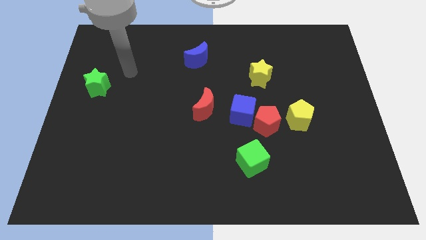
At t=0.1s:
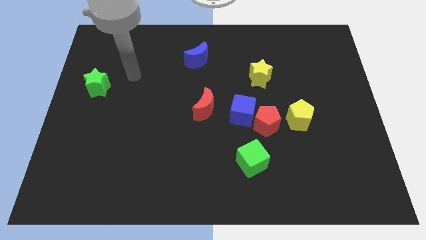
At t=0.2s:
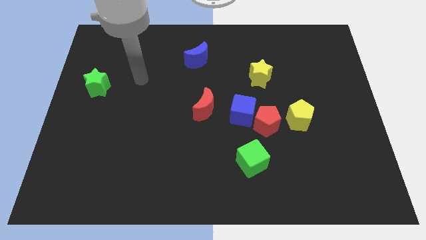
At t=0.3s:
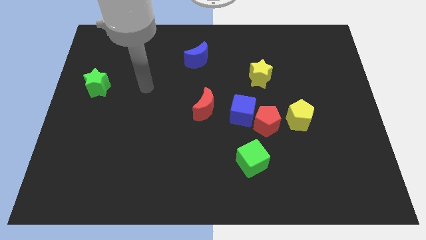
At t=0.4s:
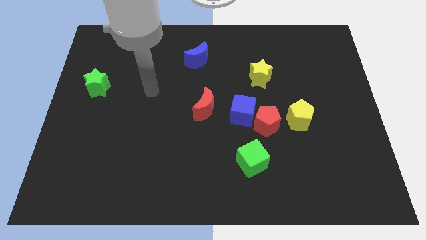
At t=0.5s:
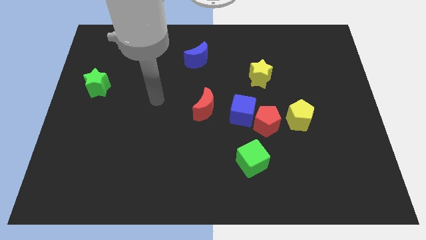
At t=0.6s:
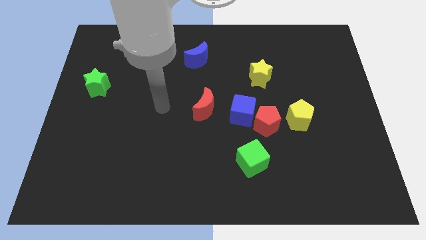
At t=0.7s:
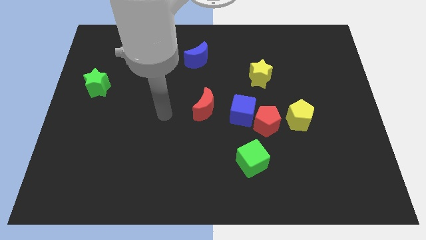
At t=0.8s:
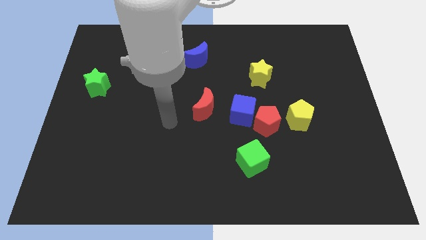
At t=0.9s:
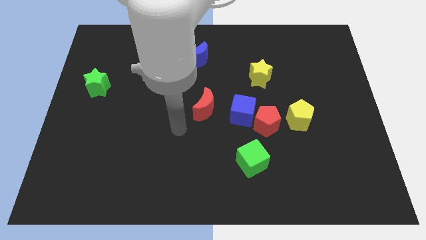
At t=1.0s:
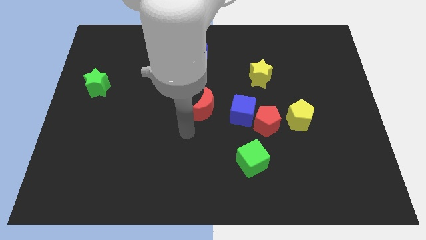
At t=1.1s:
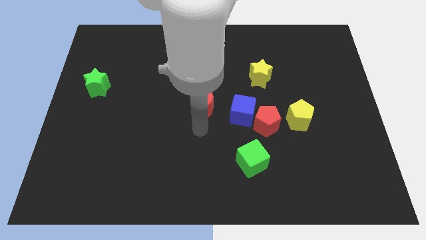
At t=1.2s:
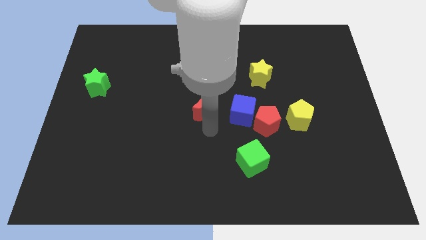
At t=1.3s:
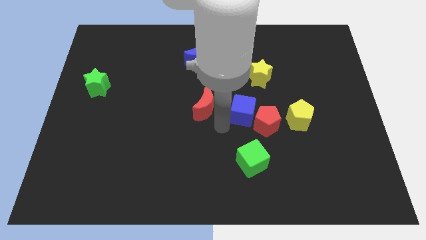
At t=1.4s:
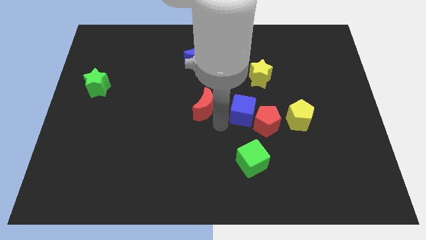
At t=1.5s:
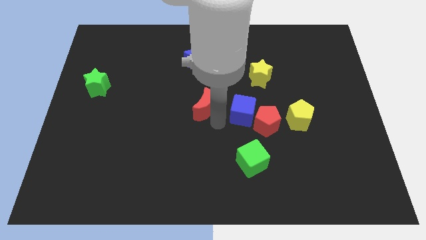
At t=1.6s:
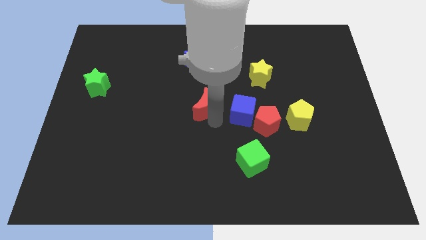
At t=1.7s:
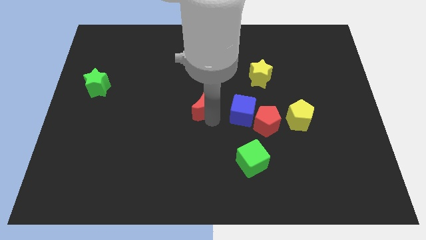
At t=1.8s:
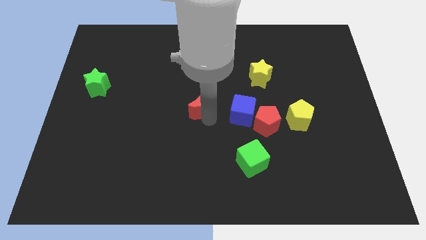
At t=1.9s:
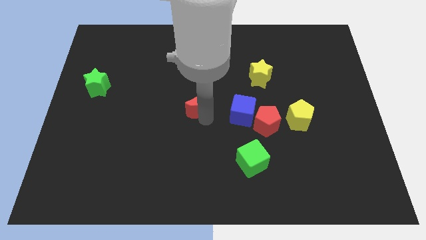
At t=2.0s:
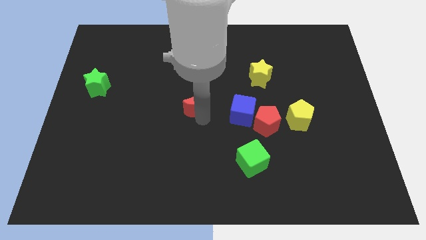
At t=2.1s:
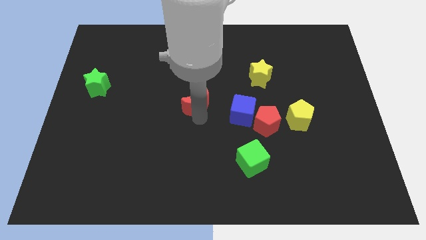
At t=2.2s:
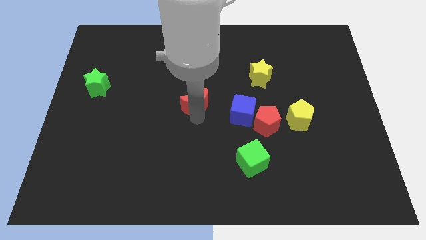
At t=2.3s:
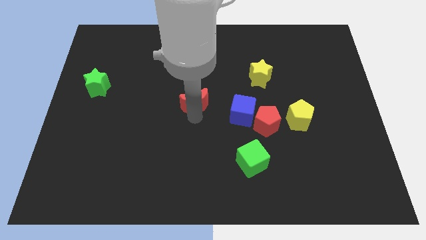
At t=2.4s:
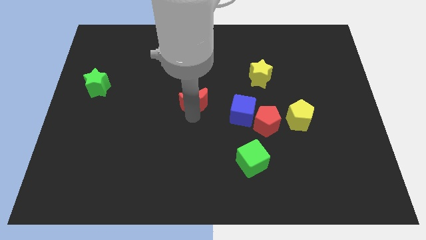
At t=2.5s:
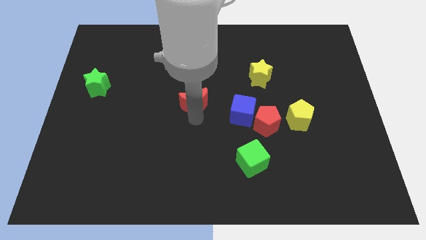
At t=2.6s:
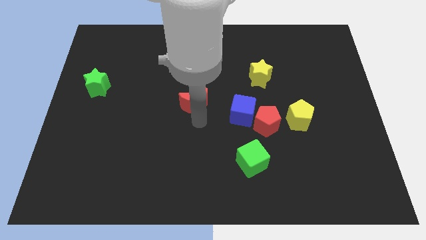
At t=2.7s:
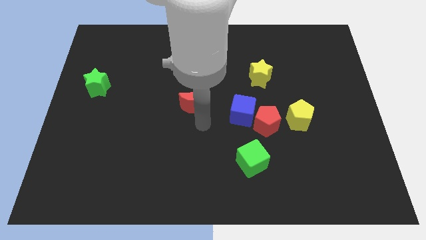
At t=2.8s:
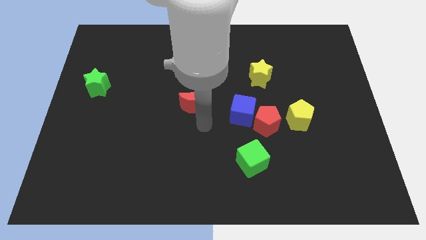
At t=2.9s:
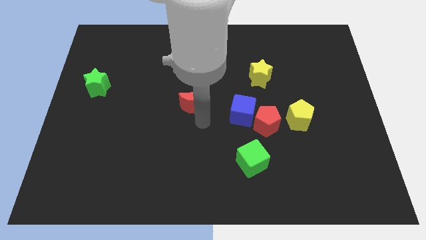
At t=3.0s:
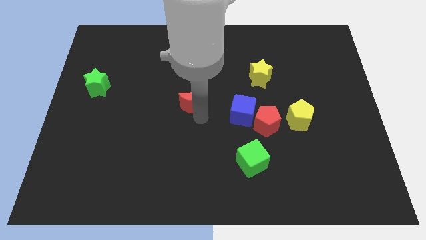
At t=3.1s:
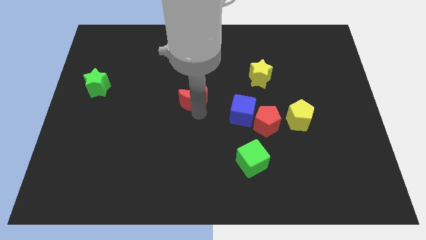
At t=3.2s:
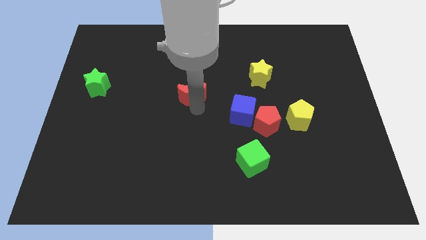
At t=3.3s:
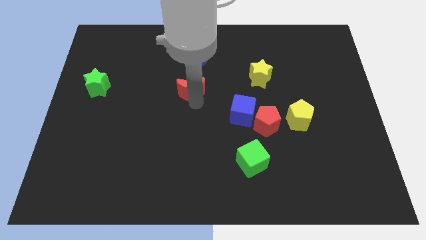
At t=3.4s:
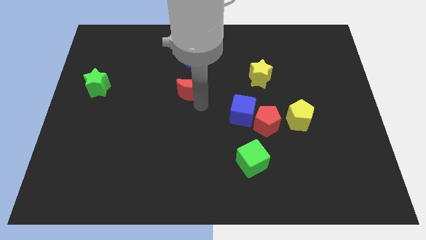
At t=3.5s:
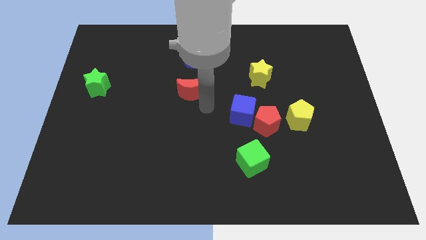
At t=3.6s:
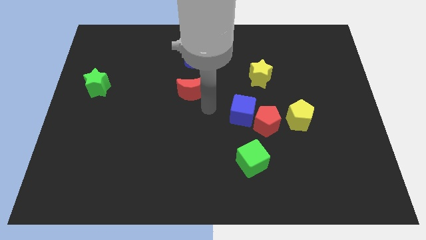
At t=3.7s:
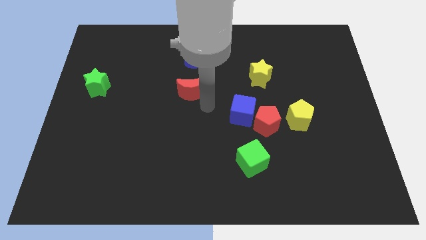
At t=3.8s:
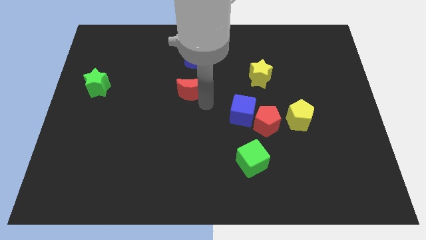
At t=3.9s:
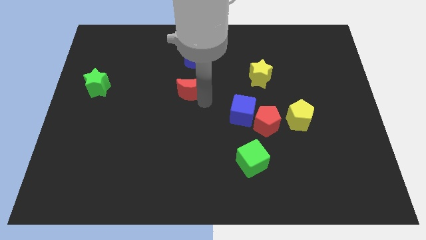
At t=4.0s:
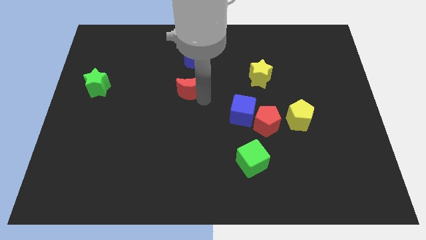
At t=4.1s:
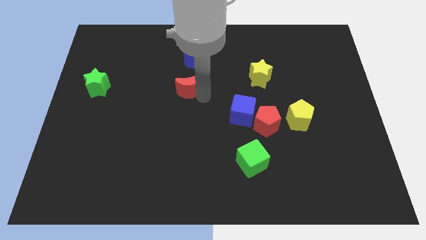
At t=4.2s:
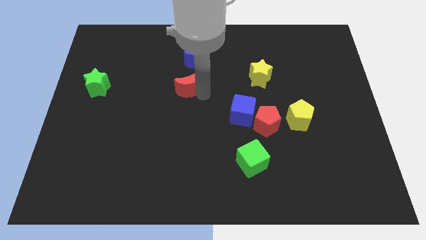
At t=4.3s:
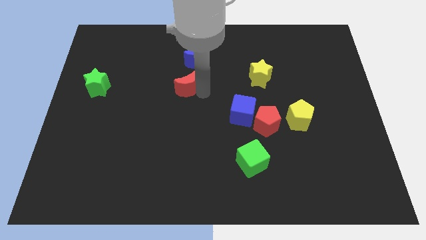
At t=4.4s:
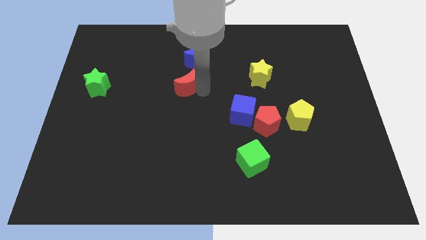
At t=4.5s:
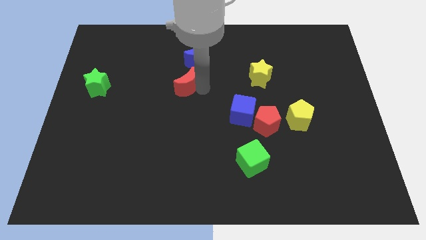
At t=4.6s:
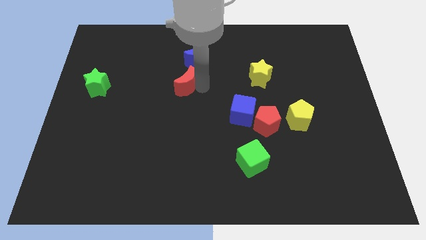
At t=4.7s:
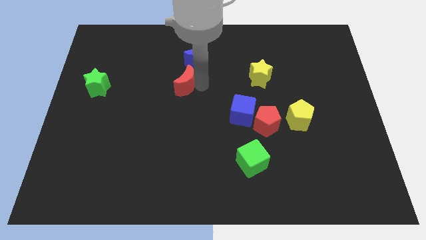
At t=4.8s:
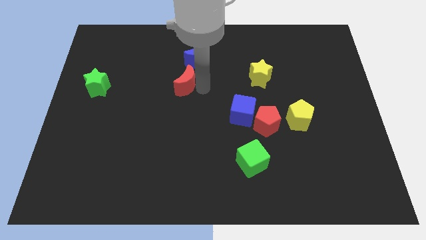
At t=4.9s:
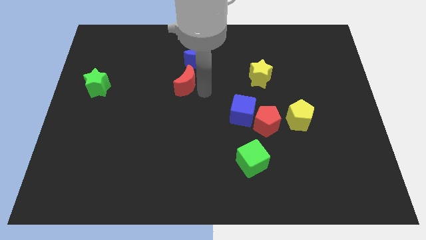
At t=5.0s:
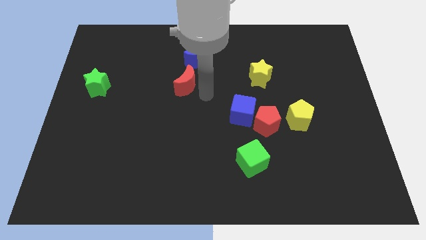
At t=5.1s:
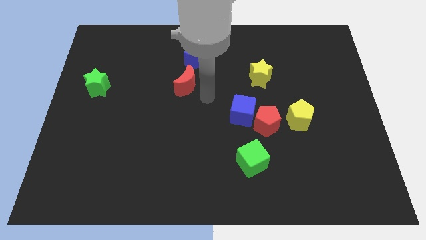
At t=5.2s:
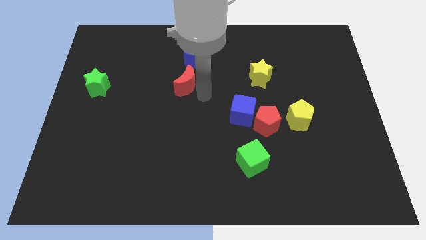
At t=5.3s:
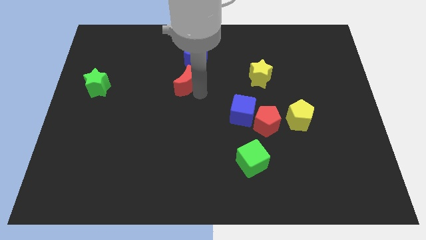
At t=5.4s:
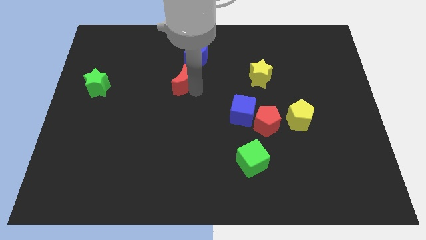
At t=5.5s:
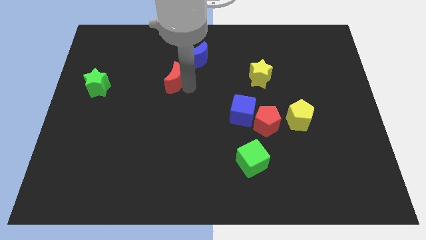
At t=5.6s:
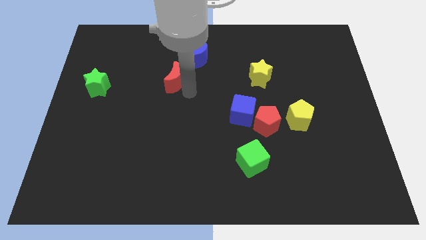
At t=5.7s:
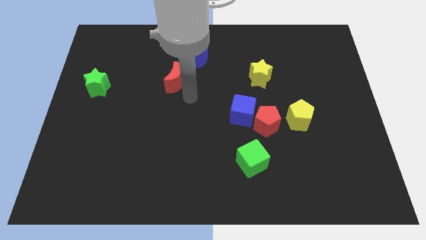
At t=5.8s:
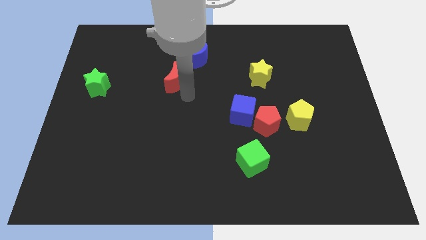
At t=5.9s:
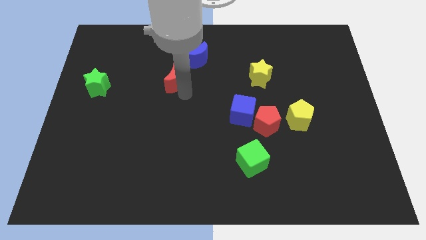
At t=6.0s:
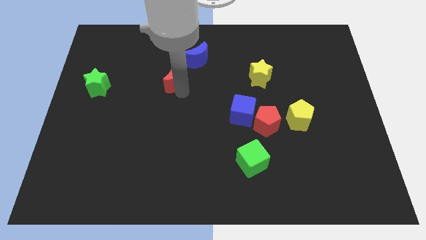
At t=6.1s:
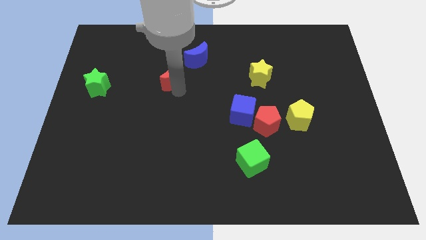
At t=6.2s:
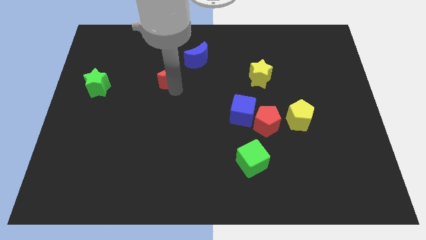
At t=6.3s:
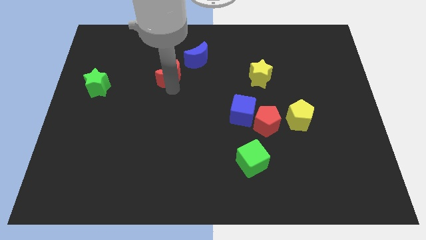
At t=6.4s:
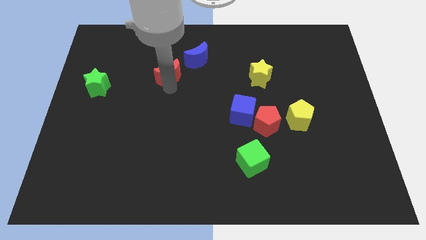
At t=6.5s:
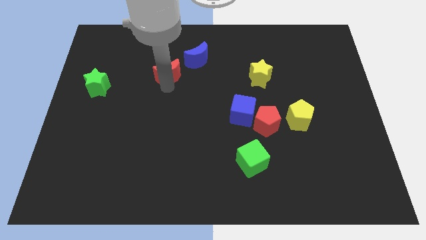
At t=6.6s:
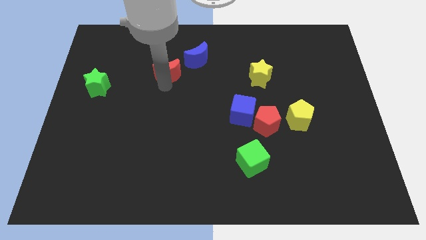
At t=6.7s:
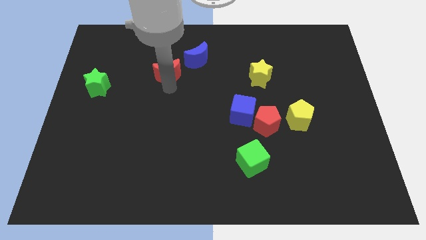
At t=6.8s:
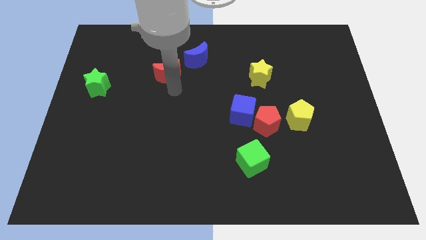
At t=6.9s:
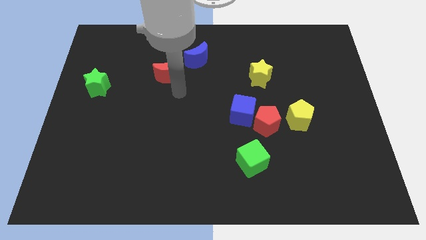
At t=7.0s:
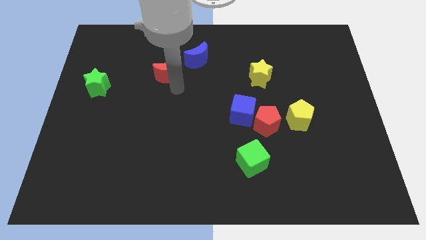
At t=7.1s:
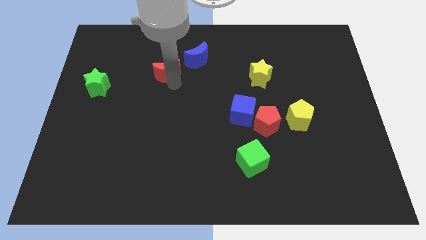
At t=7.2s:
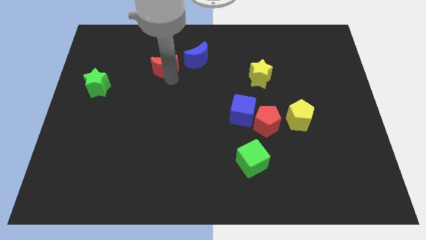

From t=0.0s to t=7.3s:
move the red moon to the left of the blue moon

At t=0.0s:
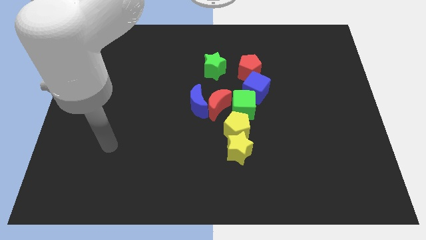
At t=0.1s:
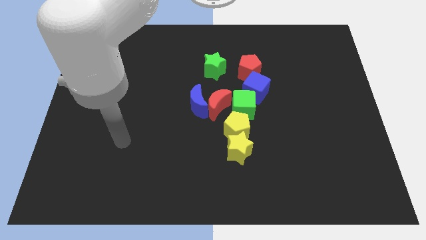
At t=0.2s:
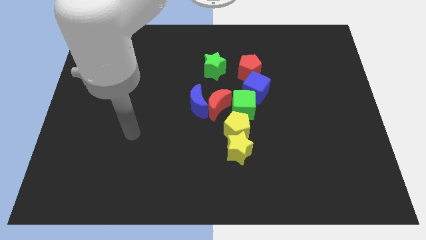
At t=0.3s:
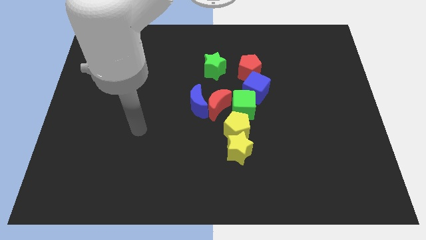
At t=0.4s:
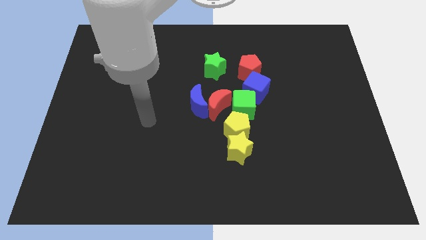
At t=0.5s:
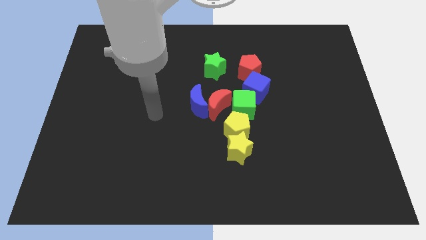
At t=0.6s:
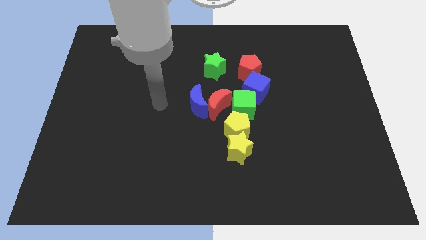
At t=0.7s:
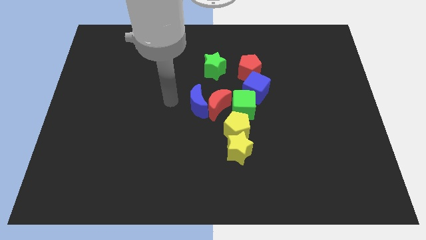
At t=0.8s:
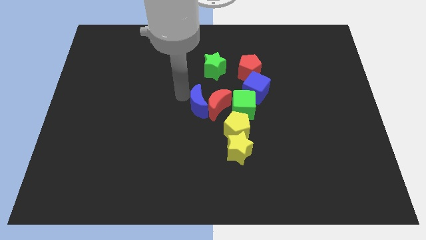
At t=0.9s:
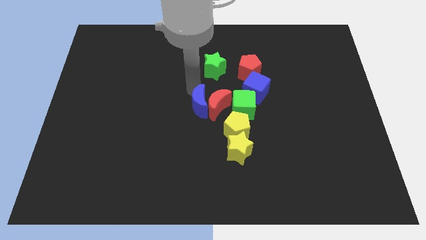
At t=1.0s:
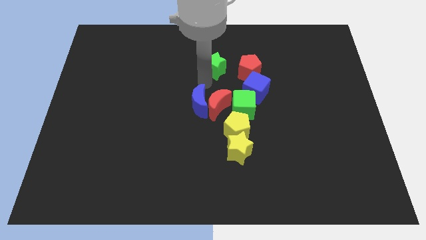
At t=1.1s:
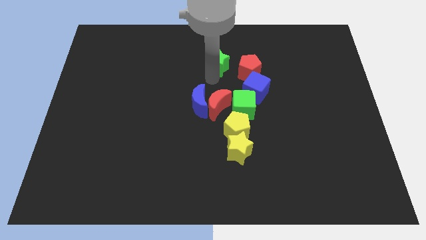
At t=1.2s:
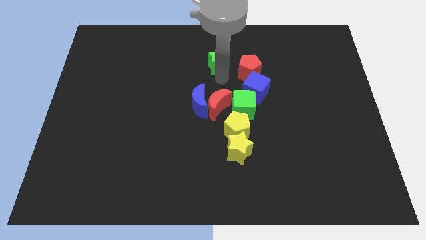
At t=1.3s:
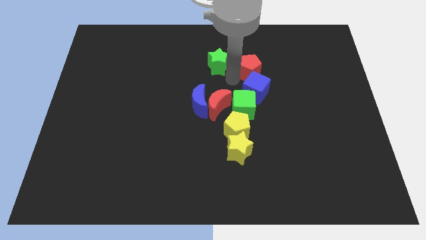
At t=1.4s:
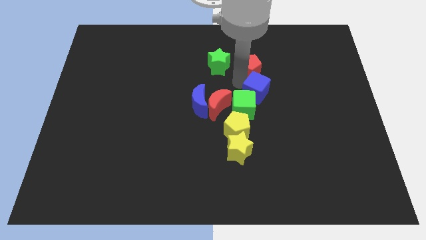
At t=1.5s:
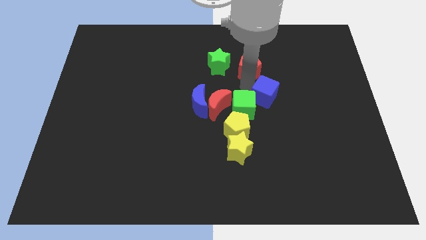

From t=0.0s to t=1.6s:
move the blue cube to the right side of the green cube
